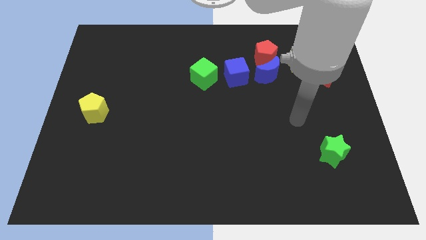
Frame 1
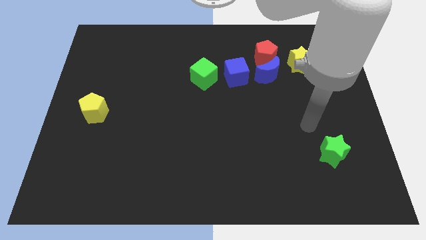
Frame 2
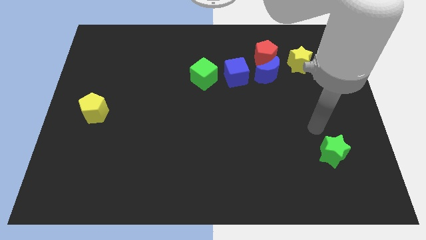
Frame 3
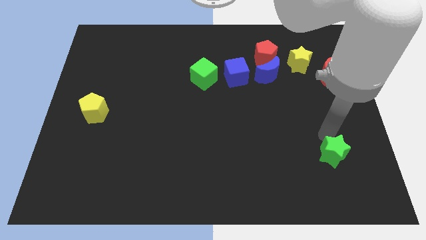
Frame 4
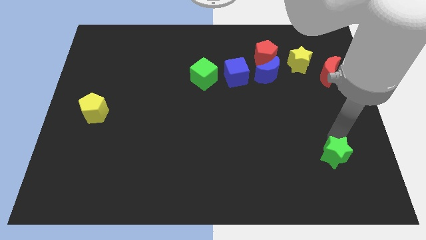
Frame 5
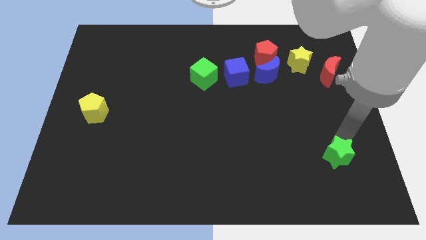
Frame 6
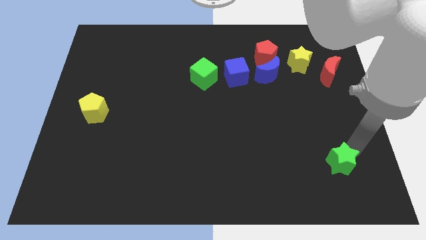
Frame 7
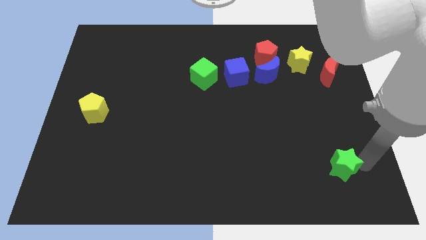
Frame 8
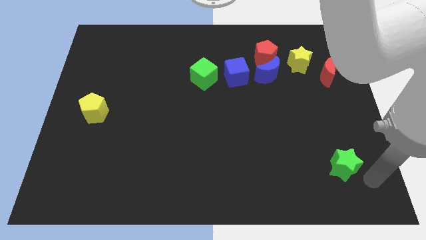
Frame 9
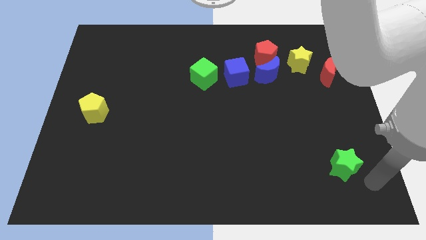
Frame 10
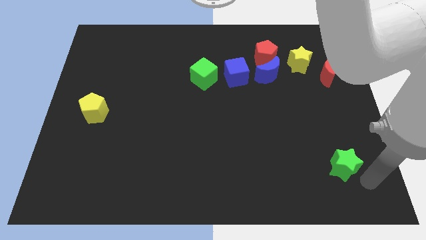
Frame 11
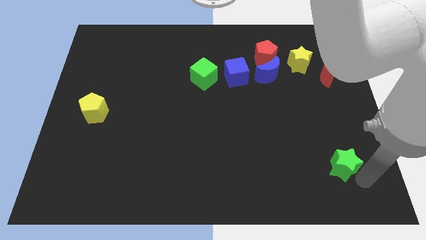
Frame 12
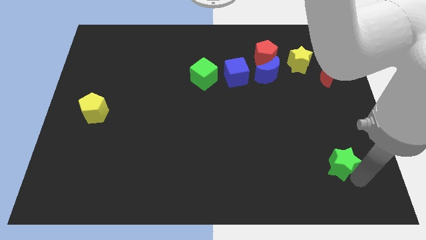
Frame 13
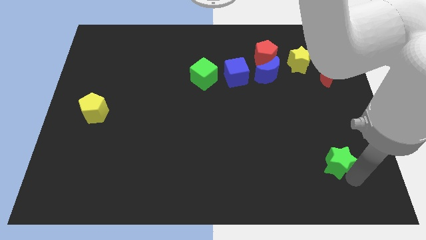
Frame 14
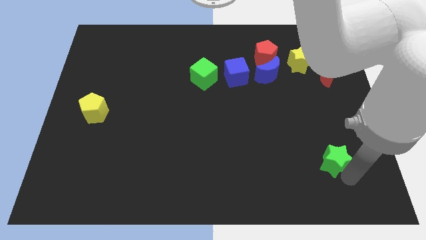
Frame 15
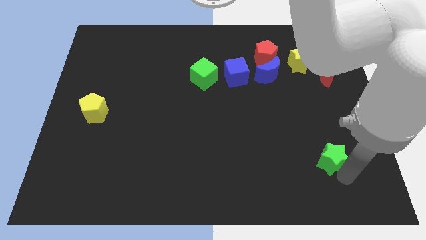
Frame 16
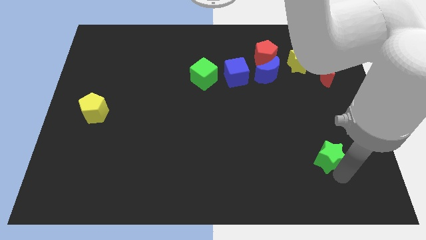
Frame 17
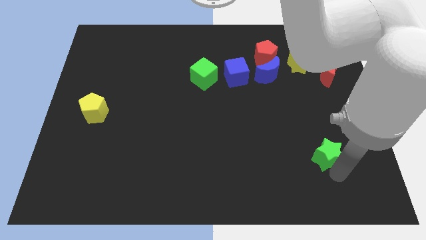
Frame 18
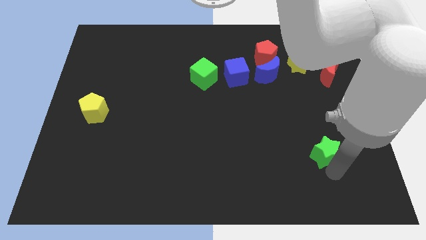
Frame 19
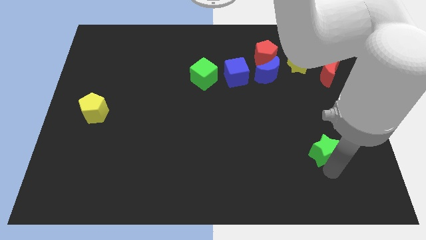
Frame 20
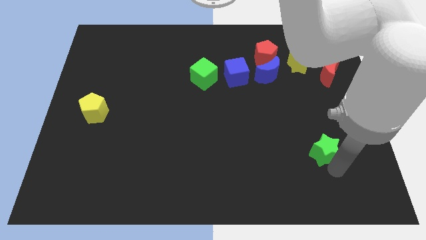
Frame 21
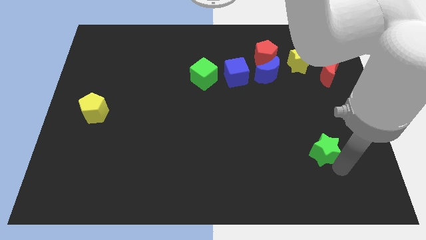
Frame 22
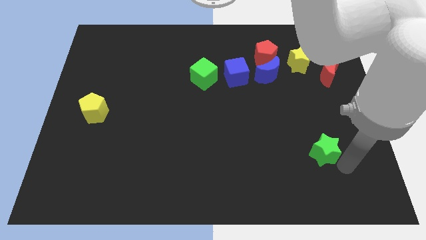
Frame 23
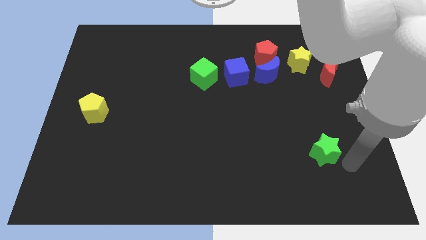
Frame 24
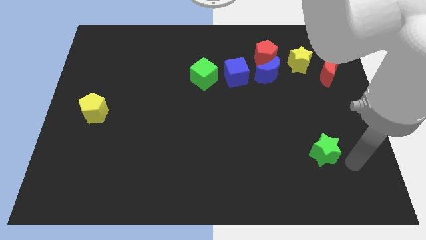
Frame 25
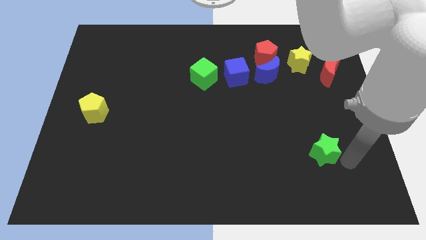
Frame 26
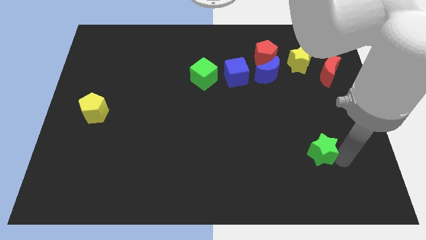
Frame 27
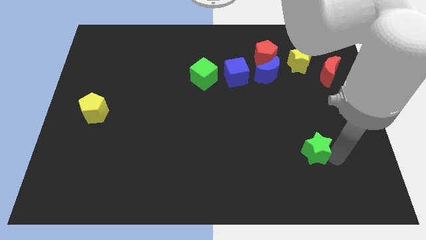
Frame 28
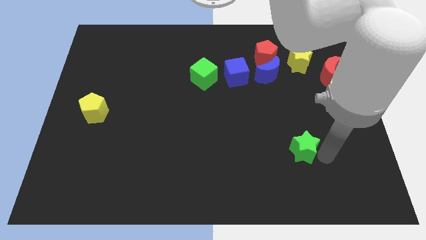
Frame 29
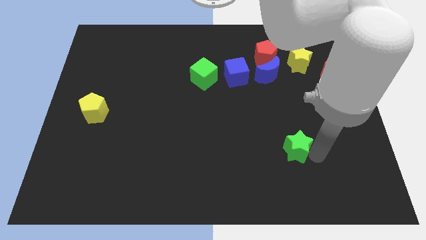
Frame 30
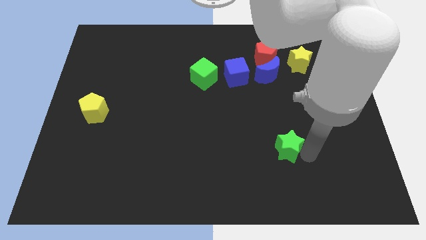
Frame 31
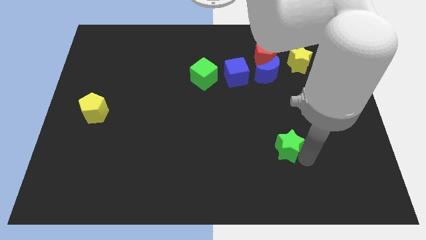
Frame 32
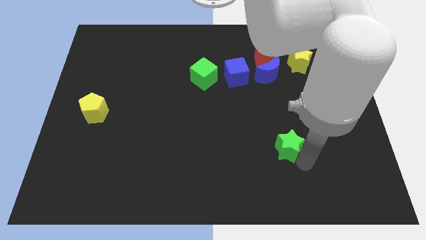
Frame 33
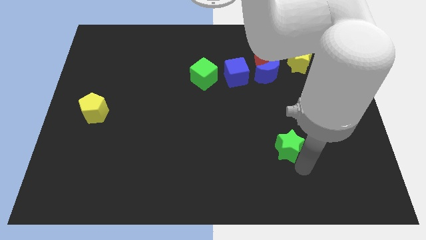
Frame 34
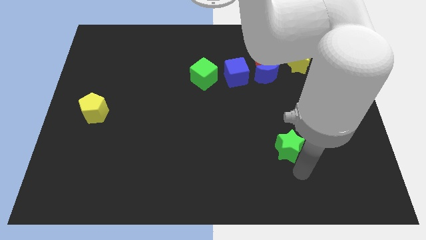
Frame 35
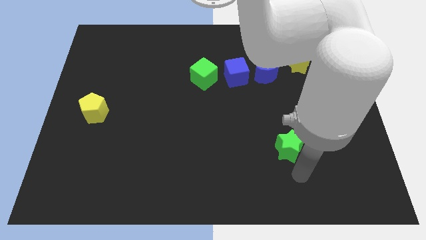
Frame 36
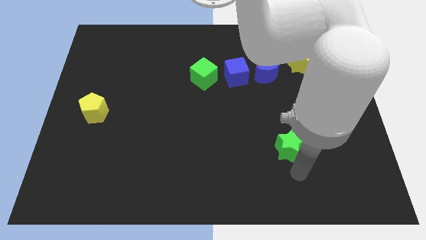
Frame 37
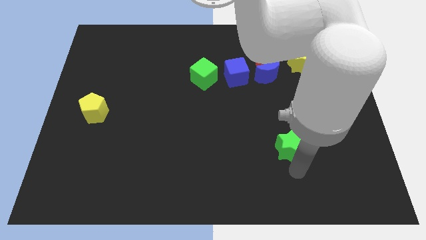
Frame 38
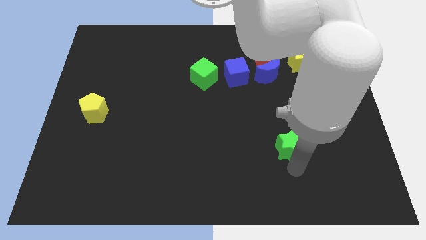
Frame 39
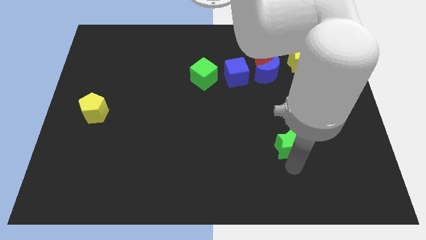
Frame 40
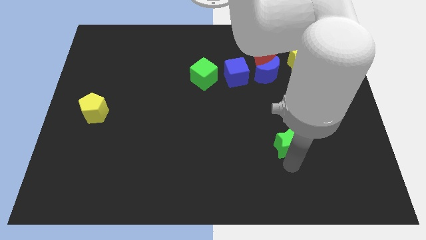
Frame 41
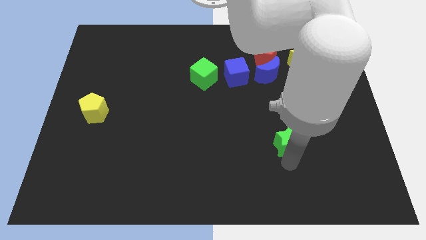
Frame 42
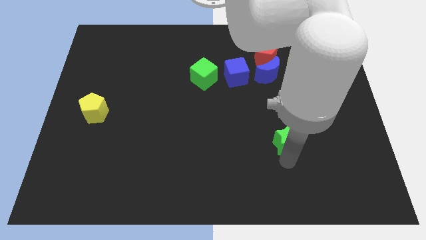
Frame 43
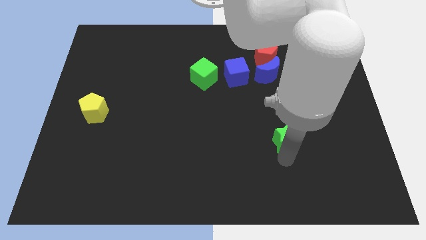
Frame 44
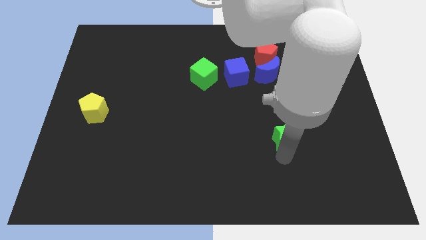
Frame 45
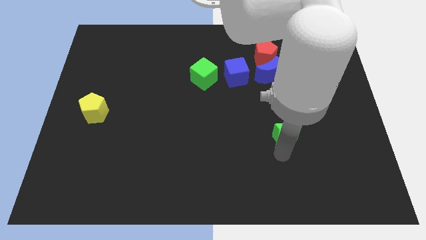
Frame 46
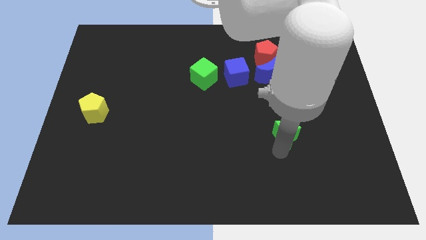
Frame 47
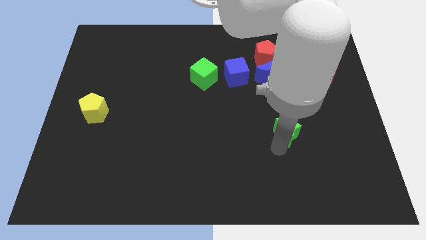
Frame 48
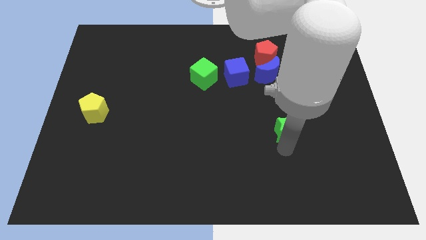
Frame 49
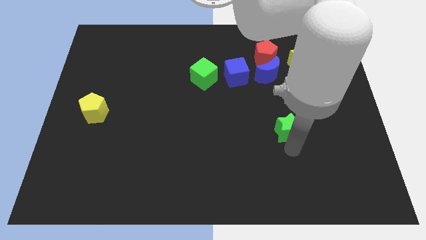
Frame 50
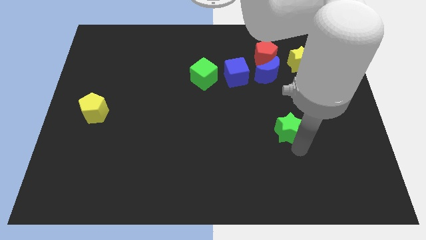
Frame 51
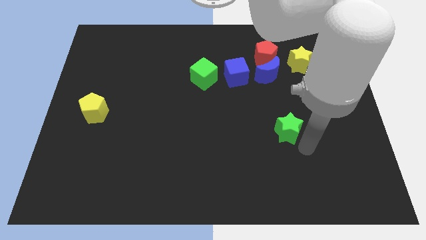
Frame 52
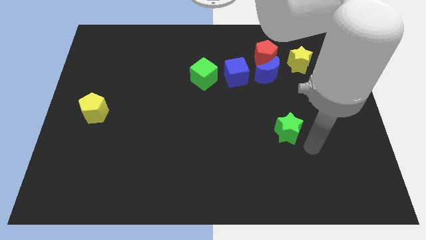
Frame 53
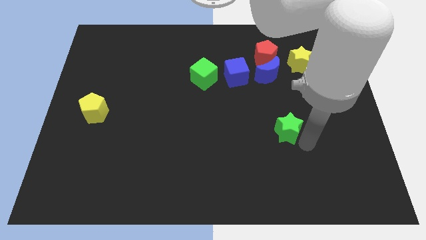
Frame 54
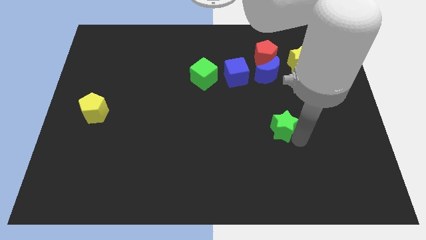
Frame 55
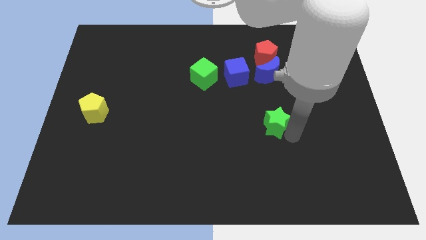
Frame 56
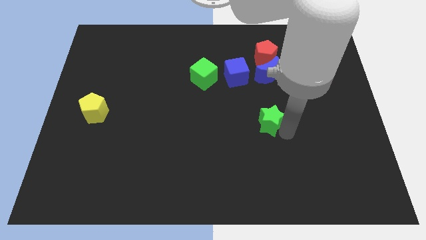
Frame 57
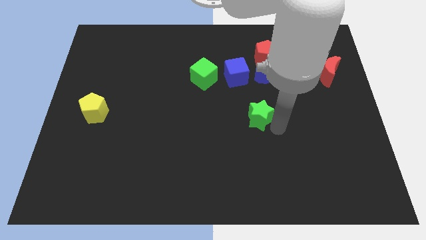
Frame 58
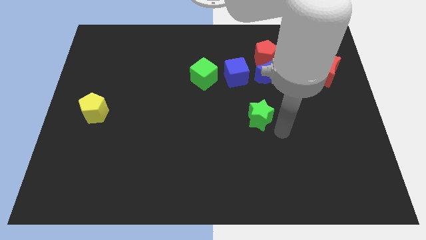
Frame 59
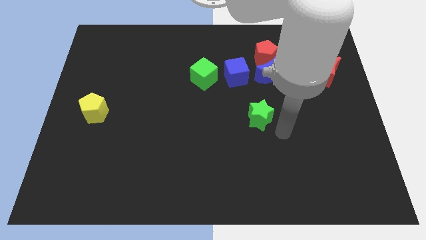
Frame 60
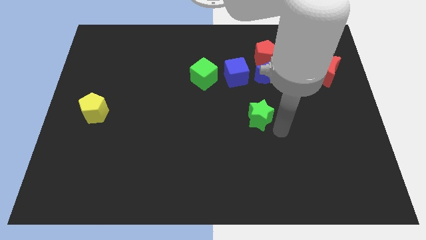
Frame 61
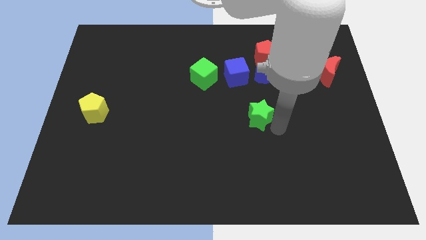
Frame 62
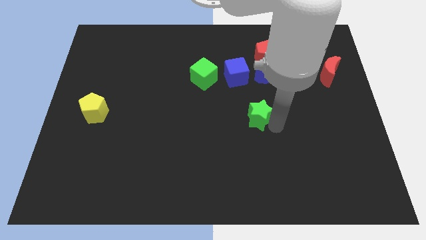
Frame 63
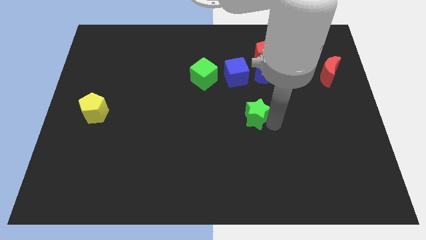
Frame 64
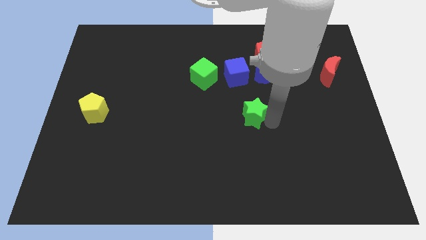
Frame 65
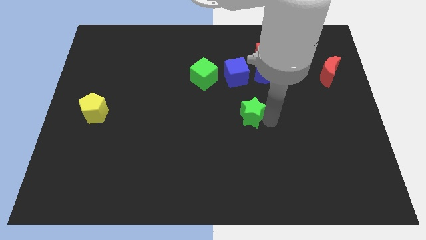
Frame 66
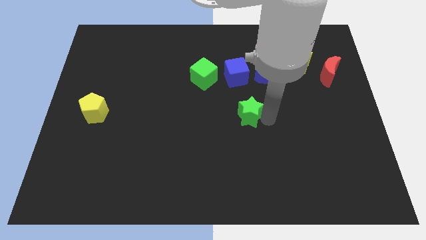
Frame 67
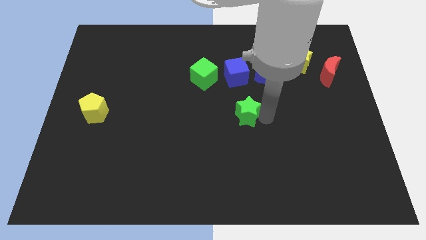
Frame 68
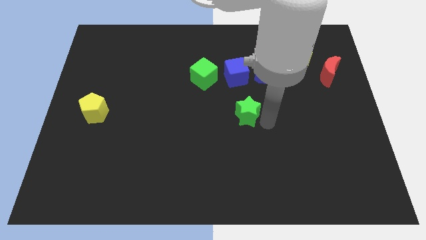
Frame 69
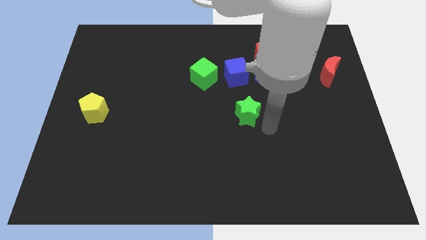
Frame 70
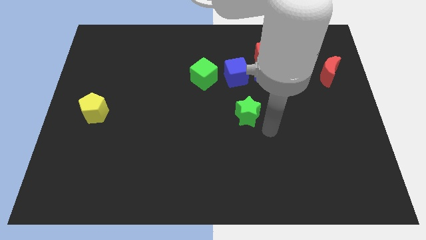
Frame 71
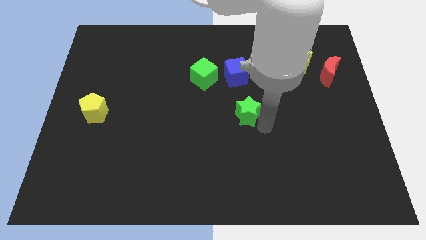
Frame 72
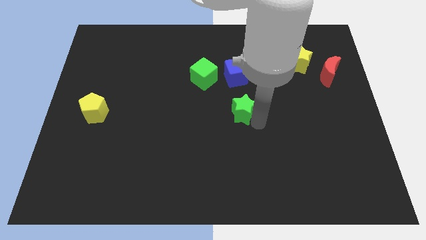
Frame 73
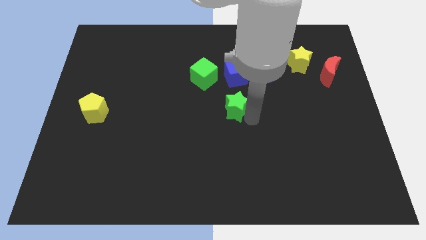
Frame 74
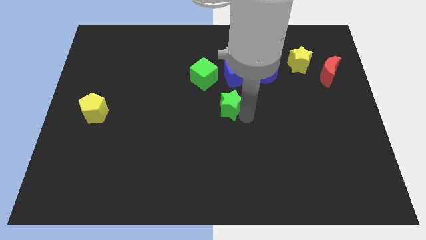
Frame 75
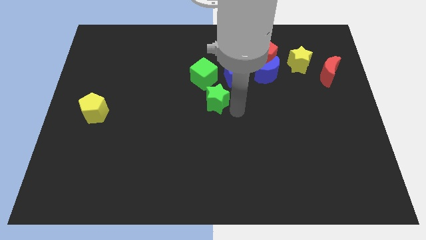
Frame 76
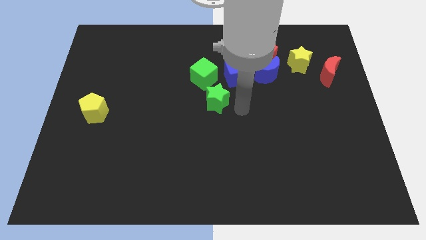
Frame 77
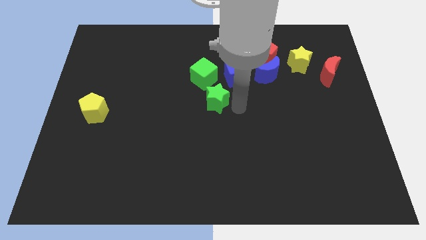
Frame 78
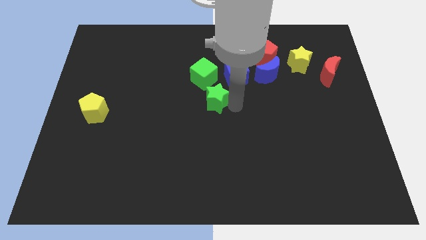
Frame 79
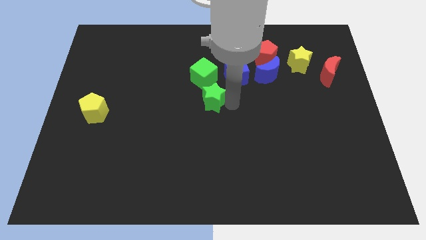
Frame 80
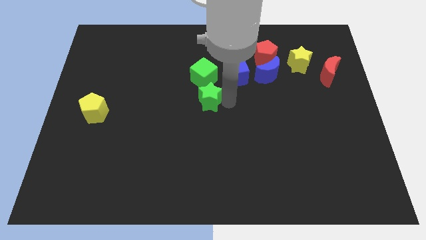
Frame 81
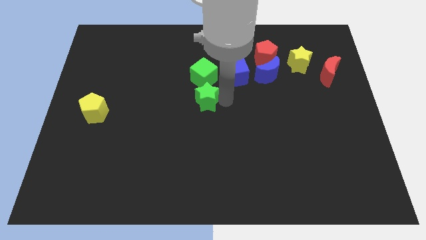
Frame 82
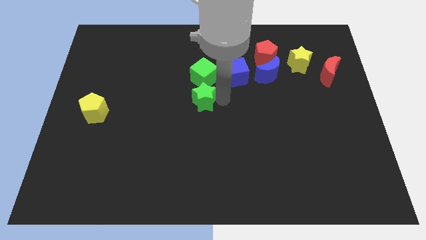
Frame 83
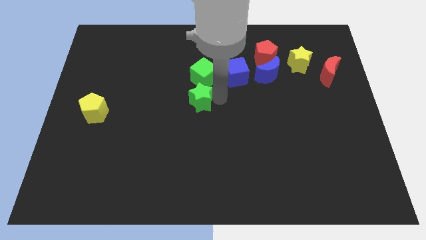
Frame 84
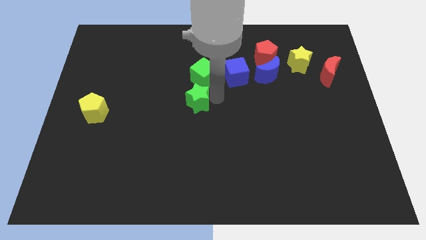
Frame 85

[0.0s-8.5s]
move the green star to the bottom left side of the green cube
